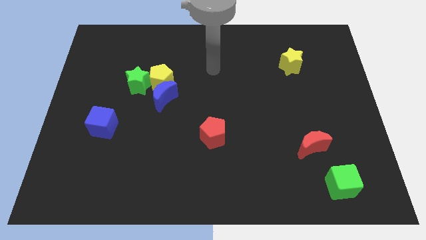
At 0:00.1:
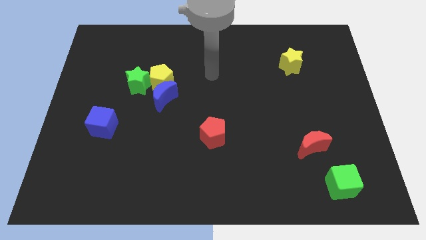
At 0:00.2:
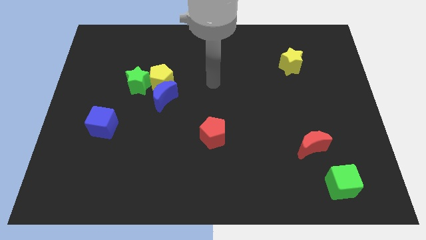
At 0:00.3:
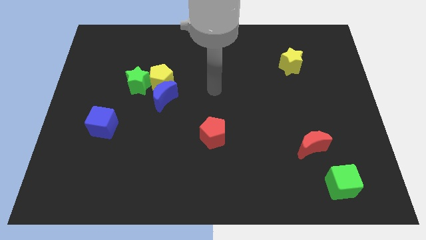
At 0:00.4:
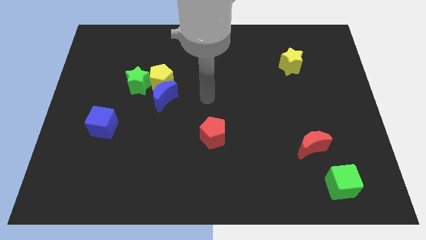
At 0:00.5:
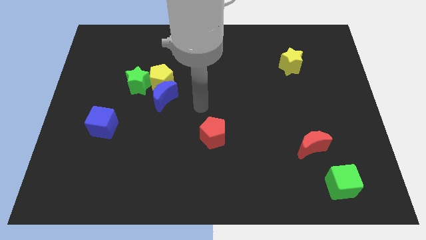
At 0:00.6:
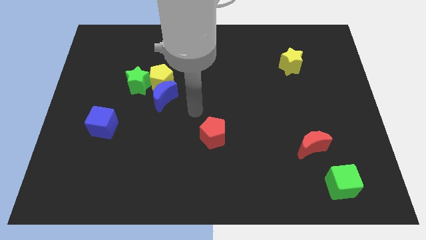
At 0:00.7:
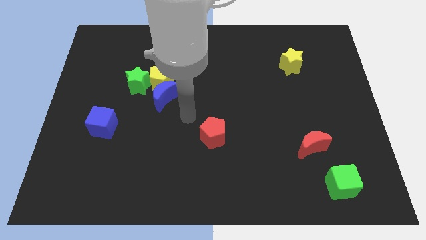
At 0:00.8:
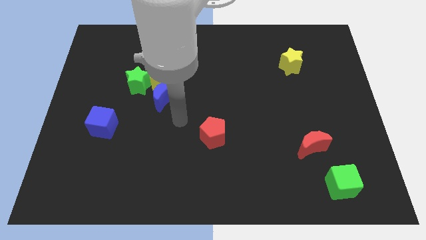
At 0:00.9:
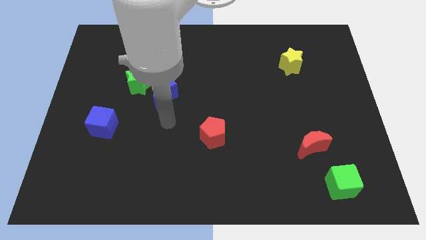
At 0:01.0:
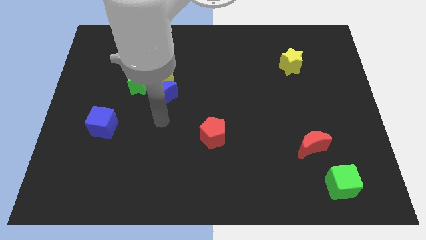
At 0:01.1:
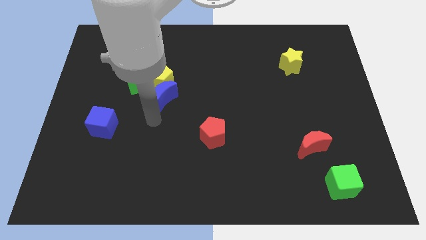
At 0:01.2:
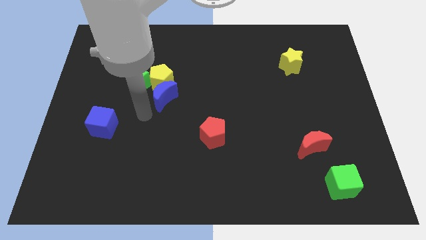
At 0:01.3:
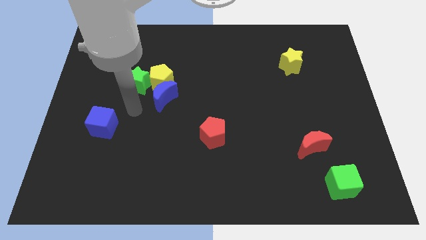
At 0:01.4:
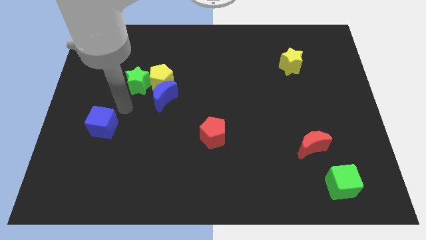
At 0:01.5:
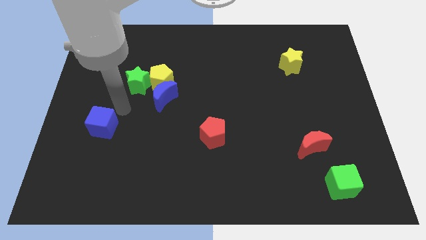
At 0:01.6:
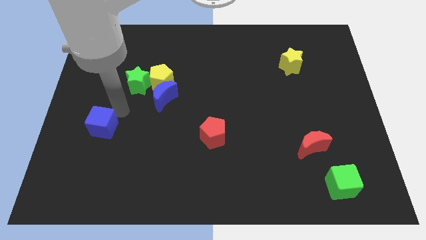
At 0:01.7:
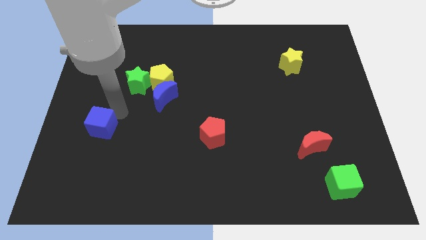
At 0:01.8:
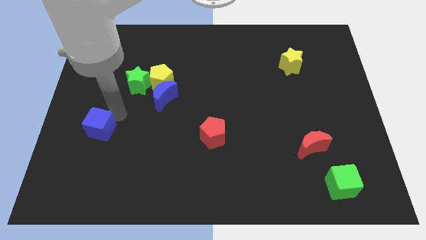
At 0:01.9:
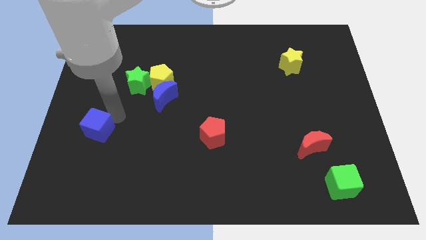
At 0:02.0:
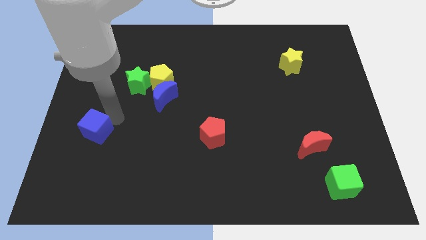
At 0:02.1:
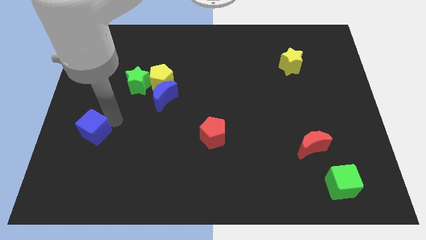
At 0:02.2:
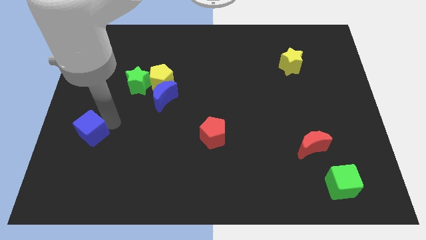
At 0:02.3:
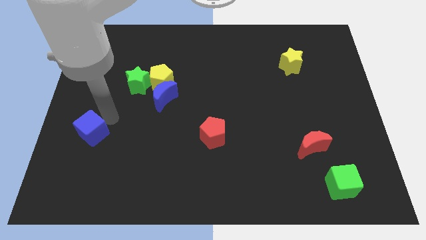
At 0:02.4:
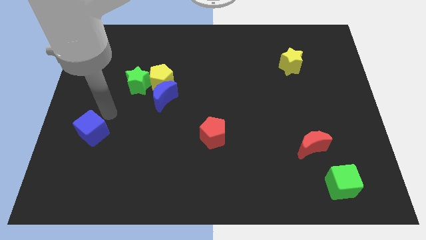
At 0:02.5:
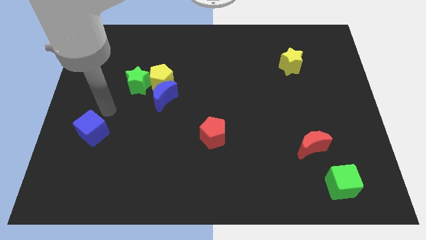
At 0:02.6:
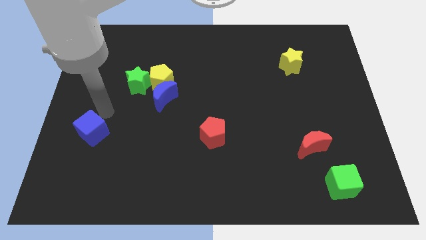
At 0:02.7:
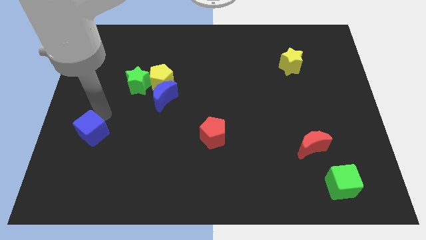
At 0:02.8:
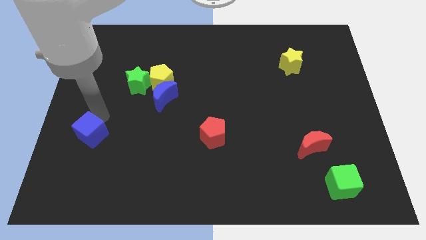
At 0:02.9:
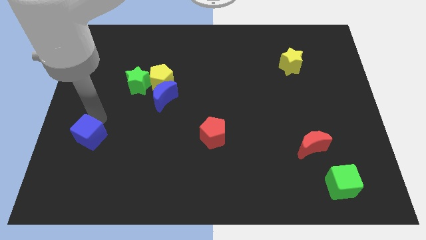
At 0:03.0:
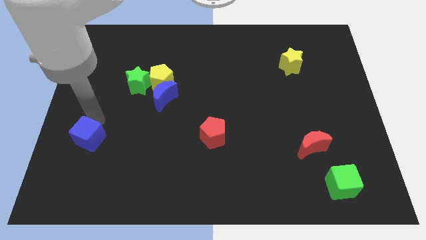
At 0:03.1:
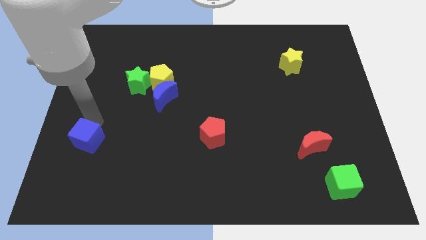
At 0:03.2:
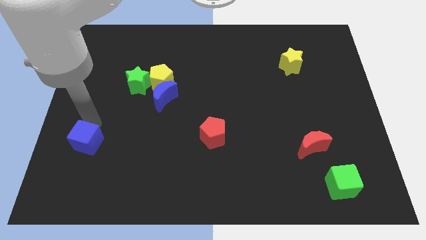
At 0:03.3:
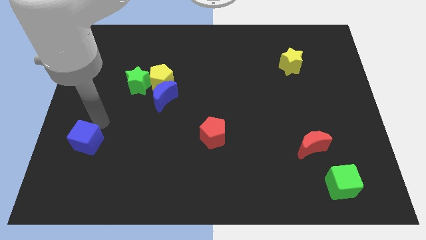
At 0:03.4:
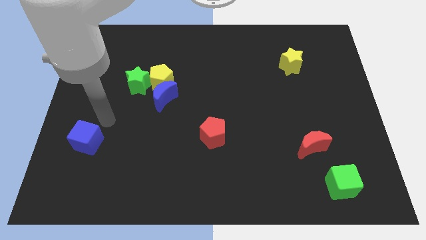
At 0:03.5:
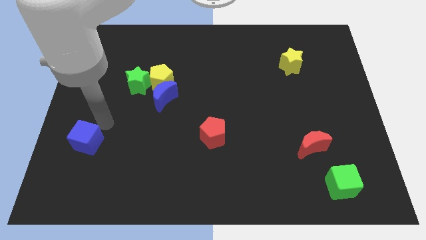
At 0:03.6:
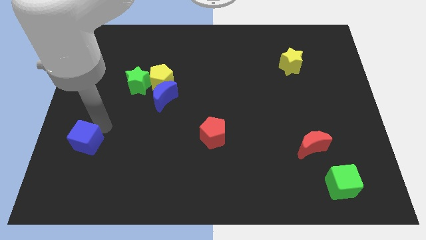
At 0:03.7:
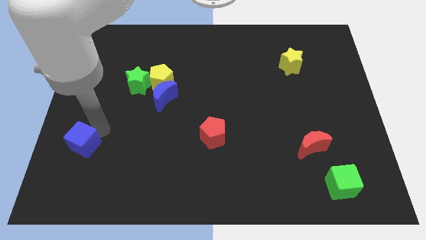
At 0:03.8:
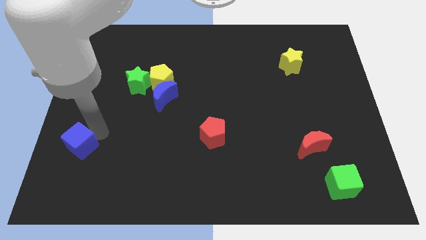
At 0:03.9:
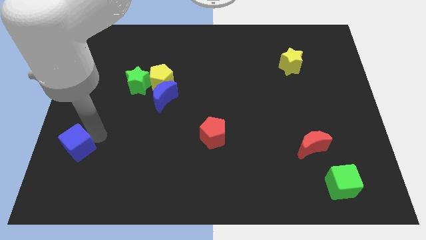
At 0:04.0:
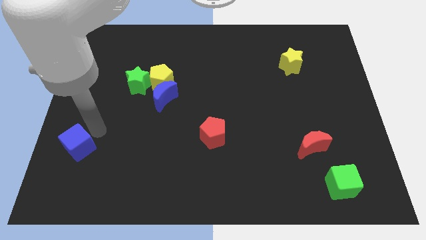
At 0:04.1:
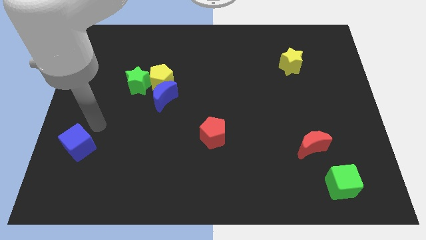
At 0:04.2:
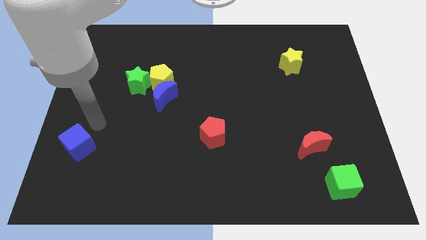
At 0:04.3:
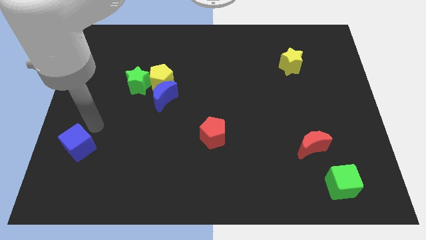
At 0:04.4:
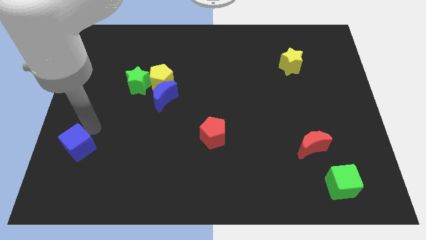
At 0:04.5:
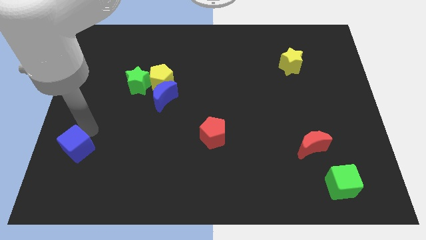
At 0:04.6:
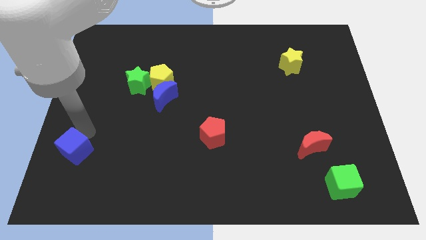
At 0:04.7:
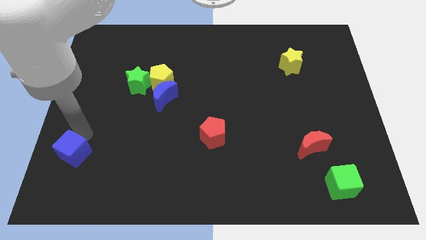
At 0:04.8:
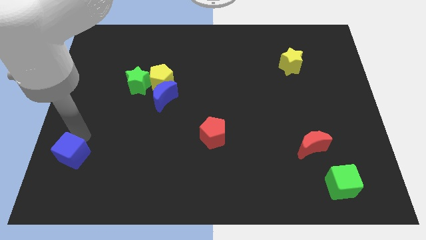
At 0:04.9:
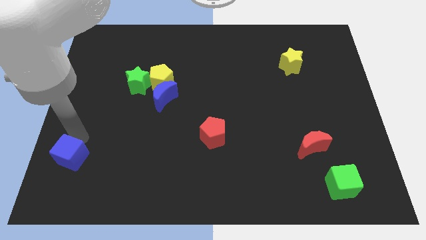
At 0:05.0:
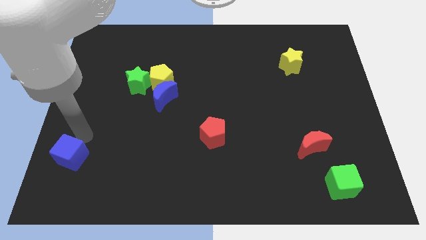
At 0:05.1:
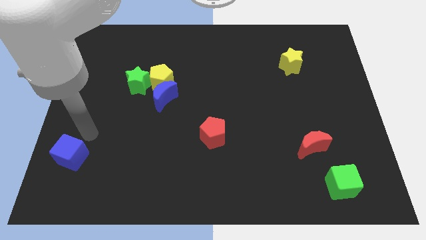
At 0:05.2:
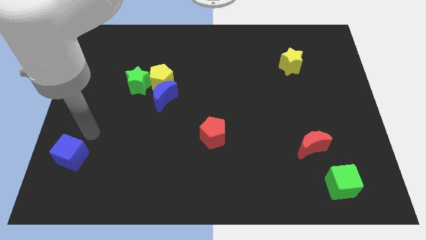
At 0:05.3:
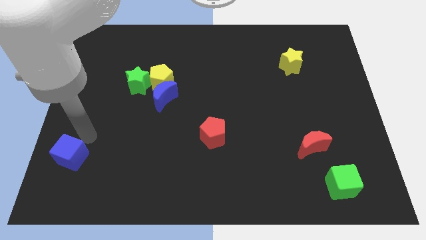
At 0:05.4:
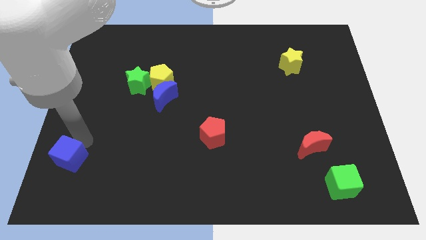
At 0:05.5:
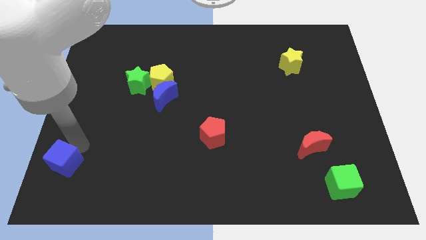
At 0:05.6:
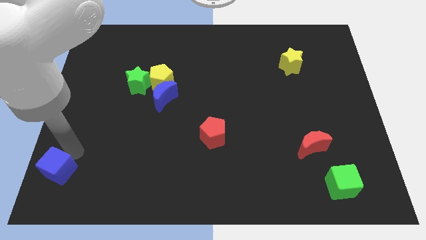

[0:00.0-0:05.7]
put the blue cube to the bottom left of the board

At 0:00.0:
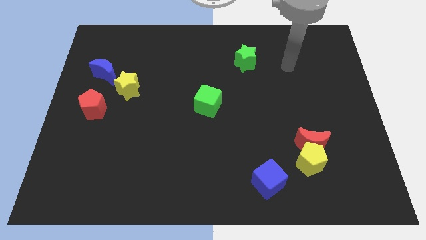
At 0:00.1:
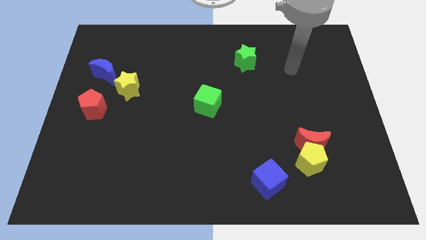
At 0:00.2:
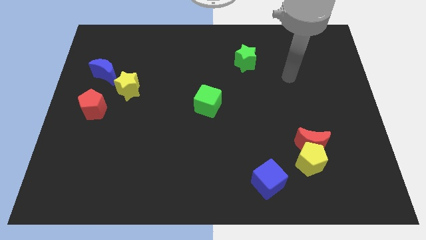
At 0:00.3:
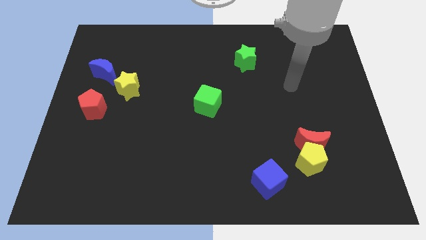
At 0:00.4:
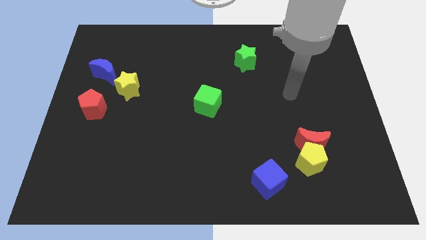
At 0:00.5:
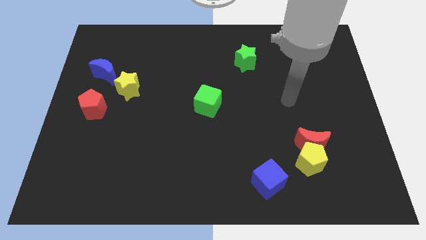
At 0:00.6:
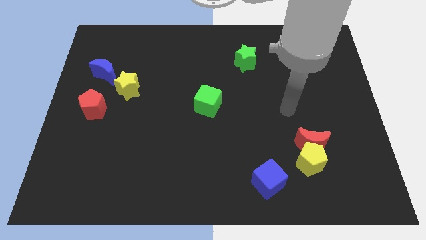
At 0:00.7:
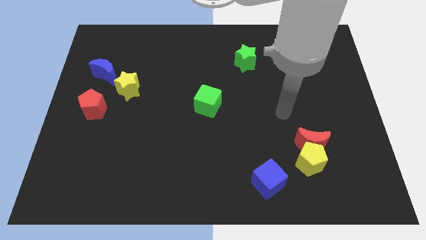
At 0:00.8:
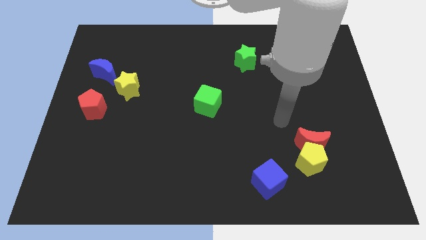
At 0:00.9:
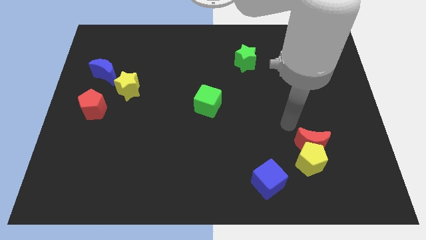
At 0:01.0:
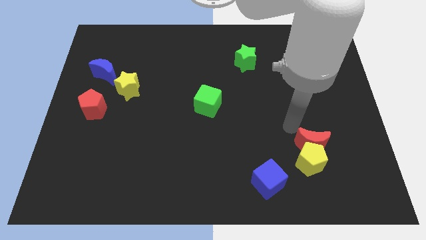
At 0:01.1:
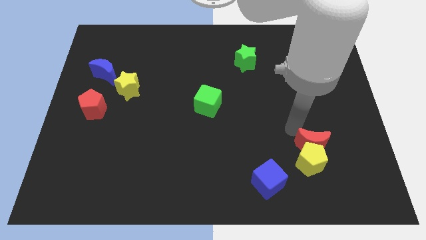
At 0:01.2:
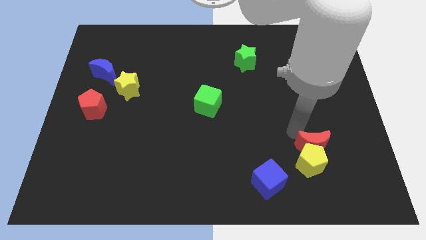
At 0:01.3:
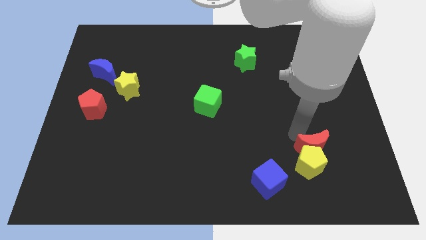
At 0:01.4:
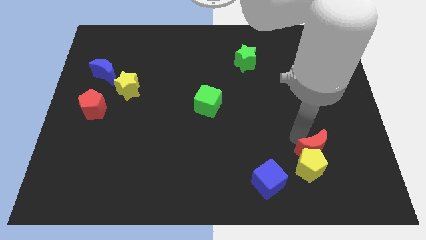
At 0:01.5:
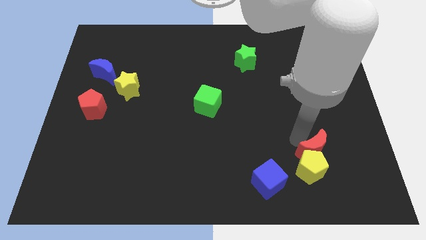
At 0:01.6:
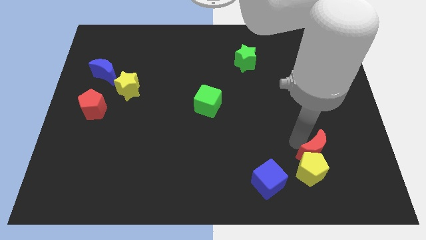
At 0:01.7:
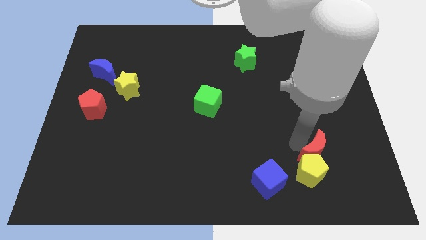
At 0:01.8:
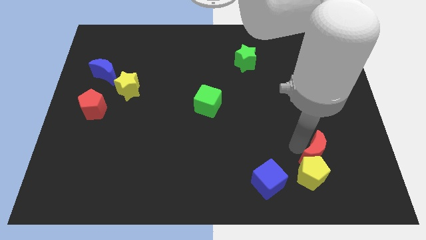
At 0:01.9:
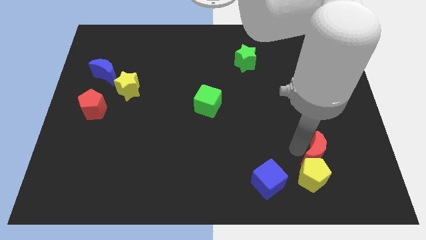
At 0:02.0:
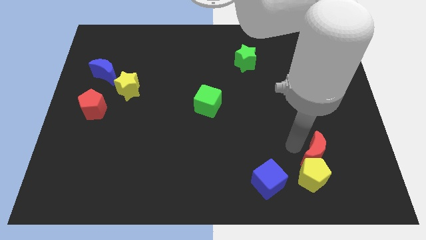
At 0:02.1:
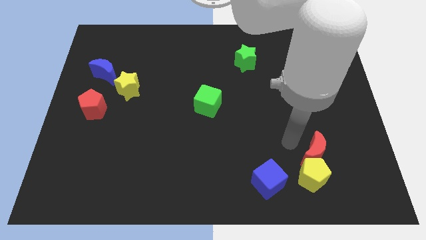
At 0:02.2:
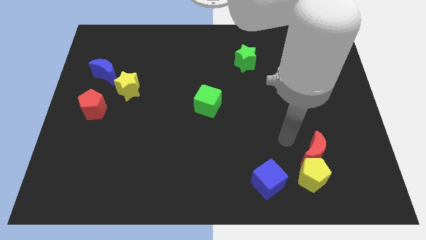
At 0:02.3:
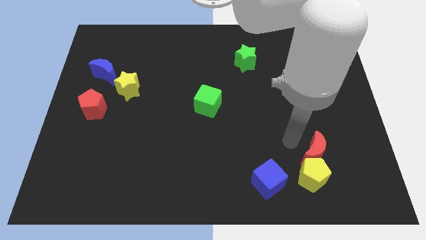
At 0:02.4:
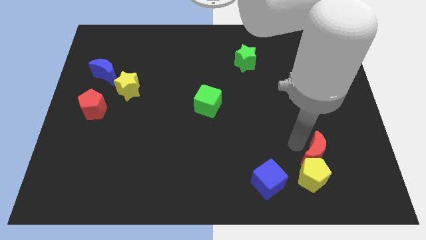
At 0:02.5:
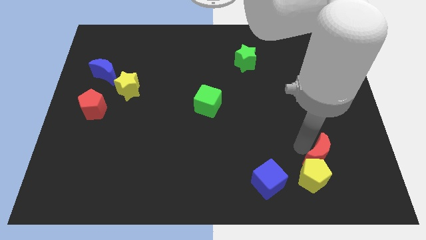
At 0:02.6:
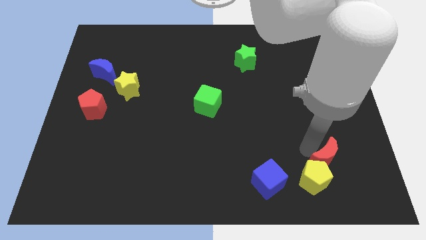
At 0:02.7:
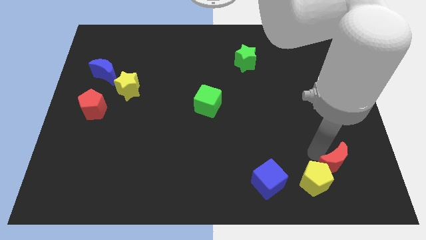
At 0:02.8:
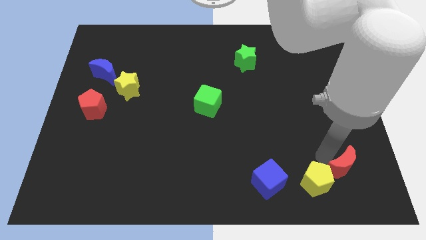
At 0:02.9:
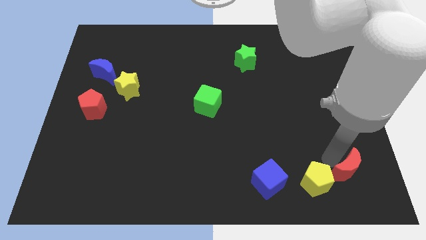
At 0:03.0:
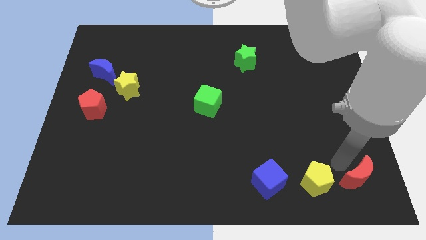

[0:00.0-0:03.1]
put the red moon to the lower right corner
